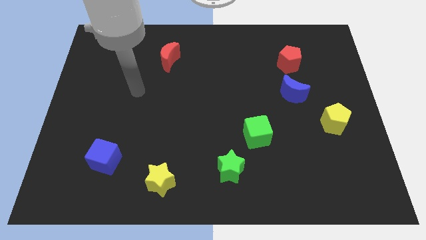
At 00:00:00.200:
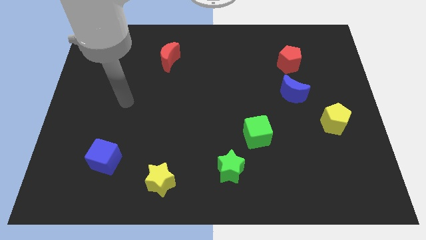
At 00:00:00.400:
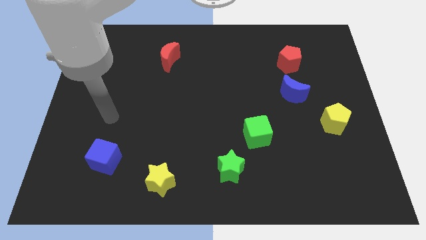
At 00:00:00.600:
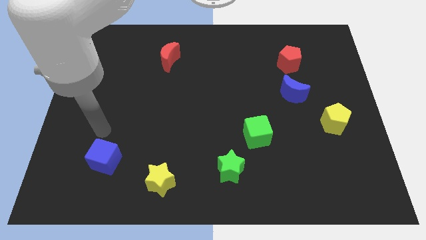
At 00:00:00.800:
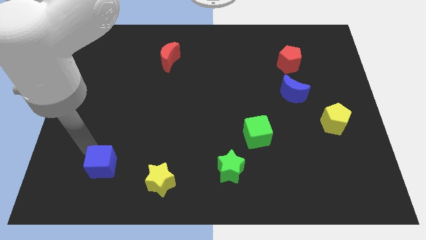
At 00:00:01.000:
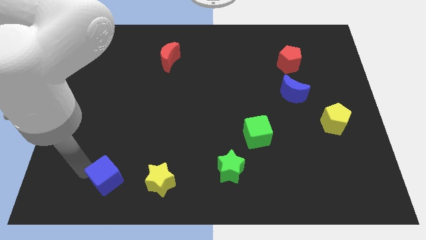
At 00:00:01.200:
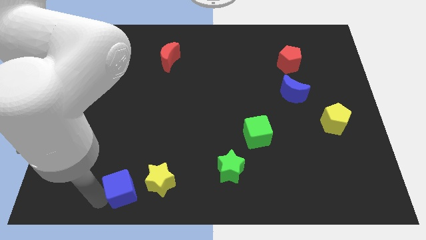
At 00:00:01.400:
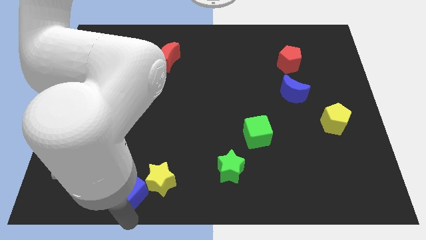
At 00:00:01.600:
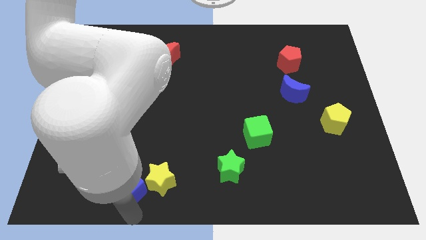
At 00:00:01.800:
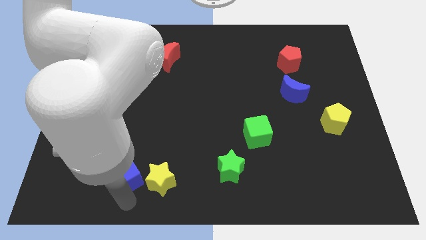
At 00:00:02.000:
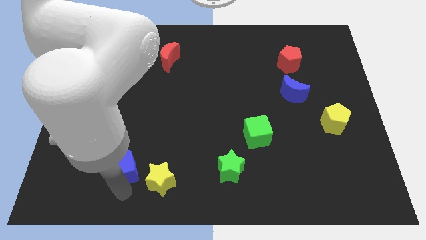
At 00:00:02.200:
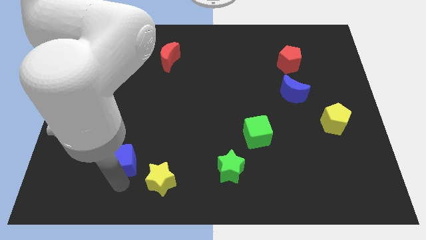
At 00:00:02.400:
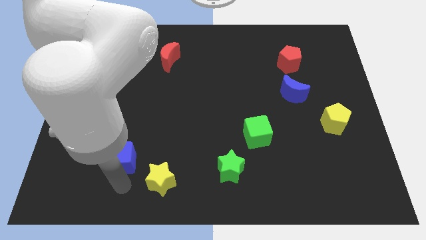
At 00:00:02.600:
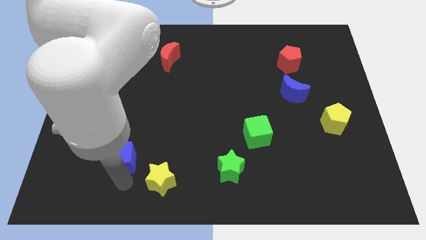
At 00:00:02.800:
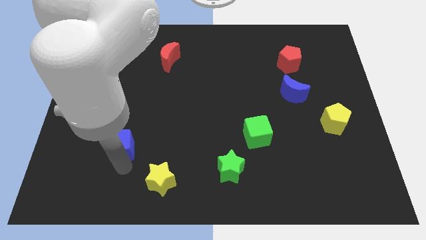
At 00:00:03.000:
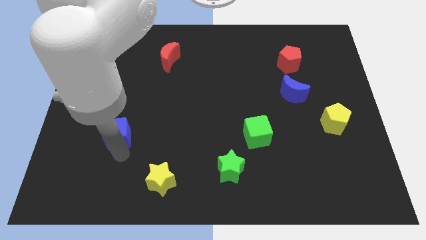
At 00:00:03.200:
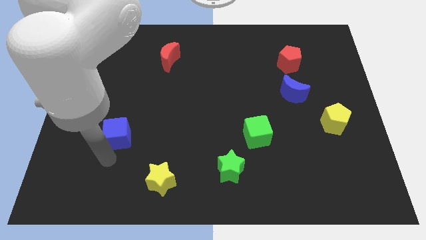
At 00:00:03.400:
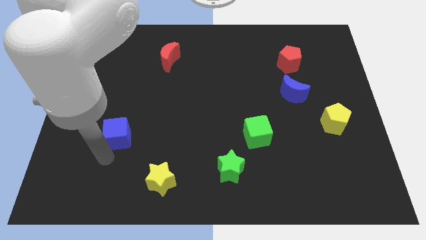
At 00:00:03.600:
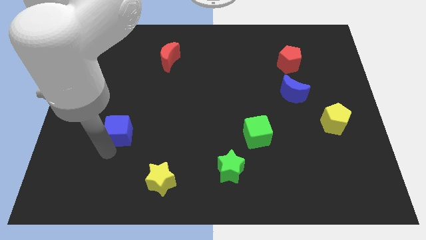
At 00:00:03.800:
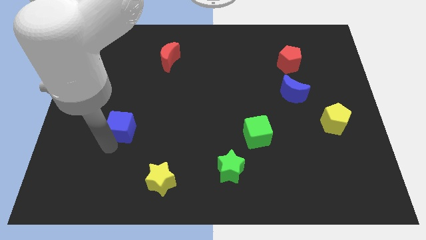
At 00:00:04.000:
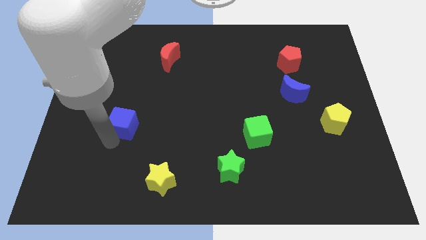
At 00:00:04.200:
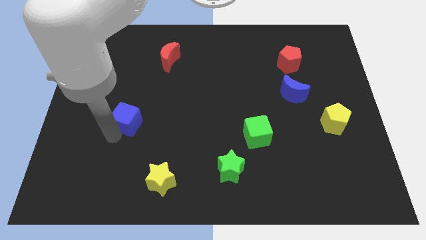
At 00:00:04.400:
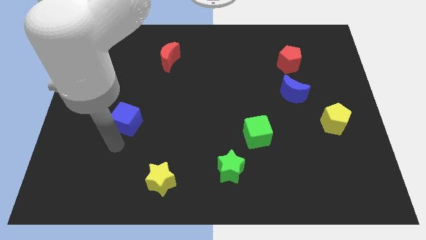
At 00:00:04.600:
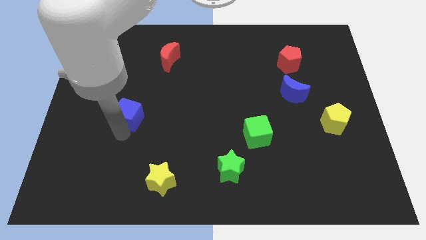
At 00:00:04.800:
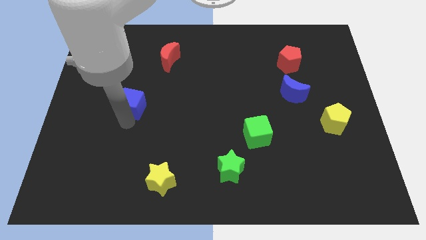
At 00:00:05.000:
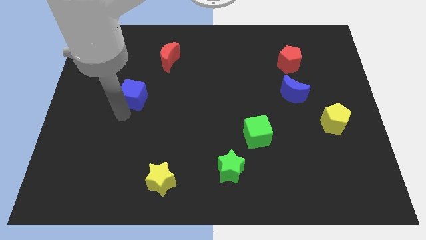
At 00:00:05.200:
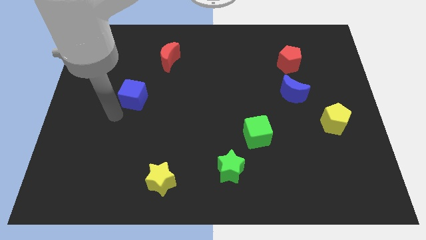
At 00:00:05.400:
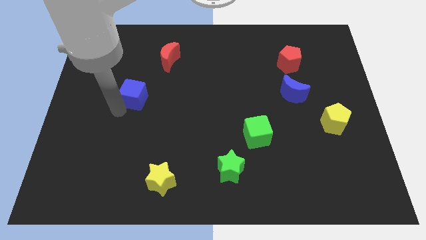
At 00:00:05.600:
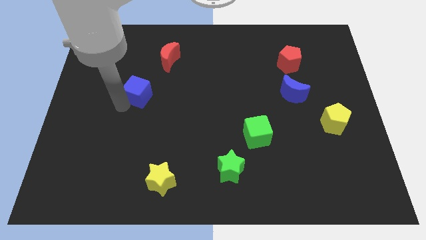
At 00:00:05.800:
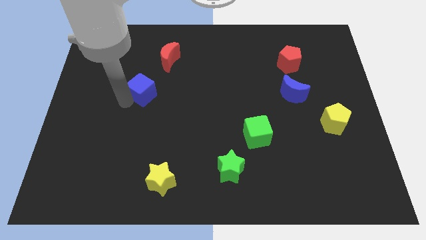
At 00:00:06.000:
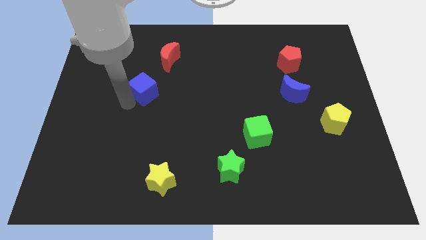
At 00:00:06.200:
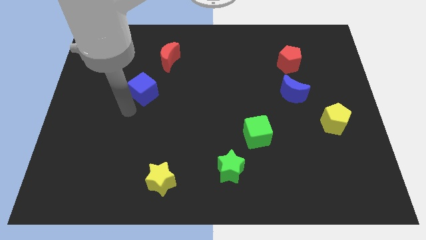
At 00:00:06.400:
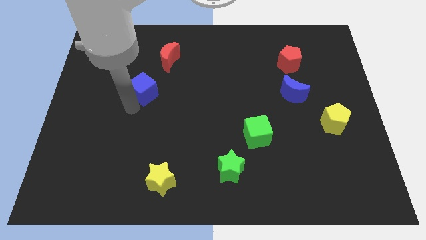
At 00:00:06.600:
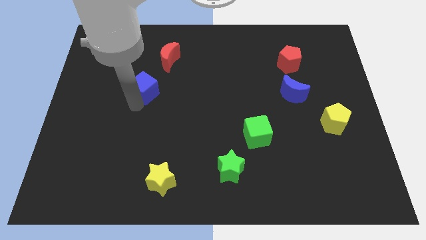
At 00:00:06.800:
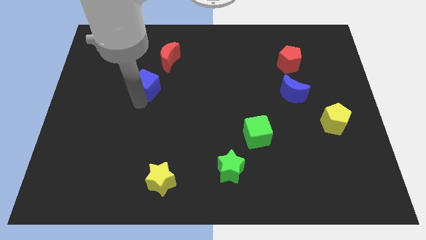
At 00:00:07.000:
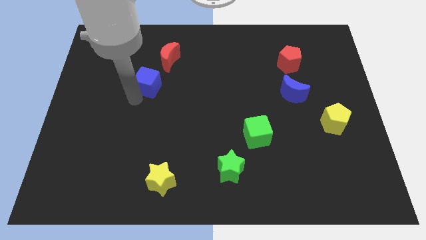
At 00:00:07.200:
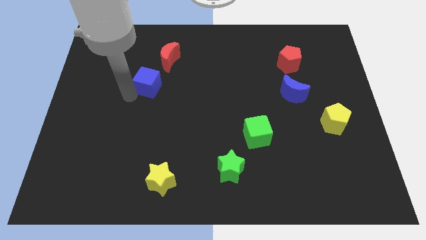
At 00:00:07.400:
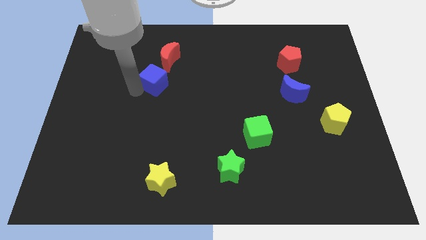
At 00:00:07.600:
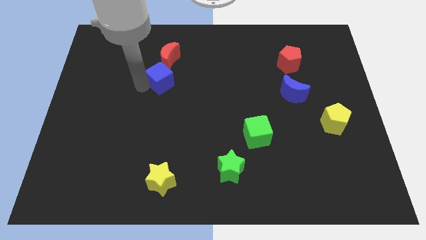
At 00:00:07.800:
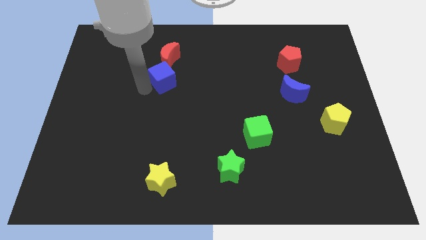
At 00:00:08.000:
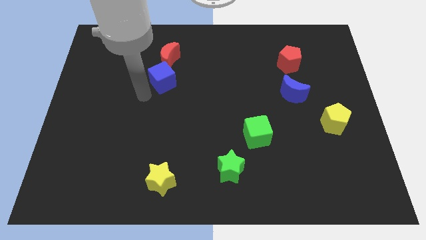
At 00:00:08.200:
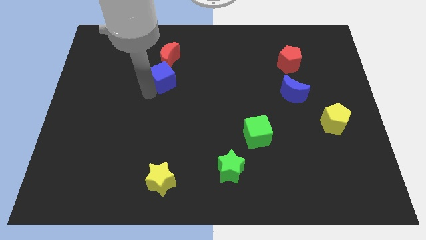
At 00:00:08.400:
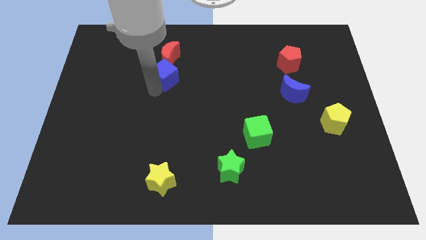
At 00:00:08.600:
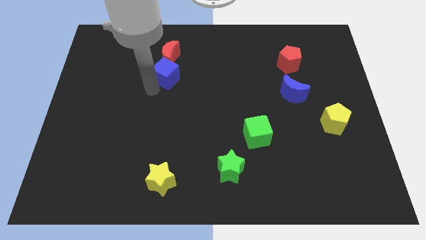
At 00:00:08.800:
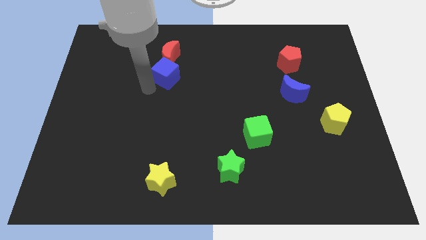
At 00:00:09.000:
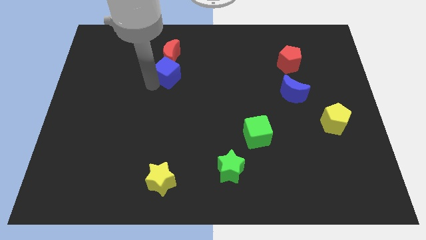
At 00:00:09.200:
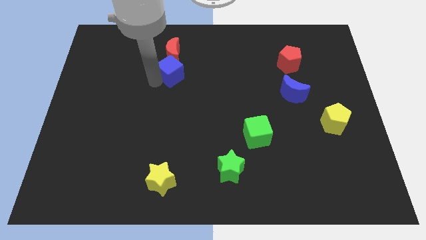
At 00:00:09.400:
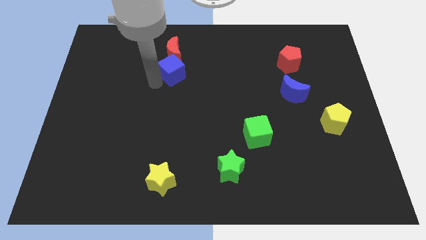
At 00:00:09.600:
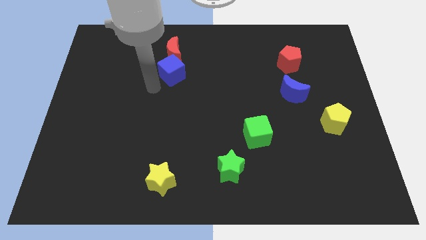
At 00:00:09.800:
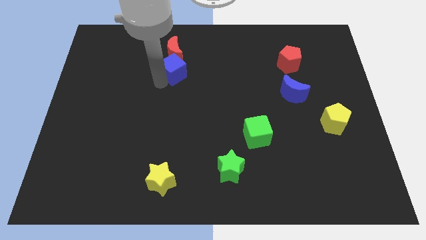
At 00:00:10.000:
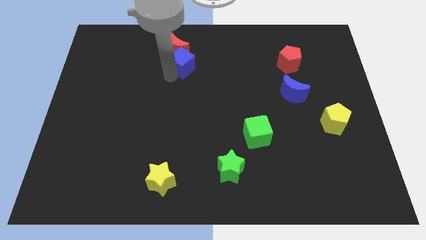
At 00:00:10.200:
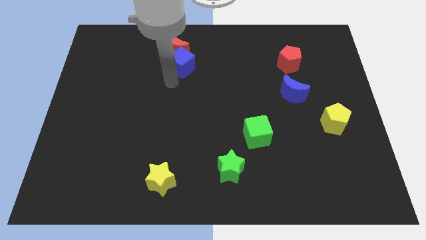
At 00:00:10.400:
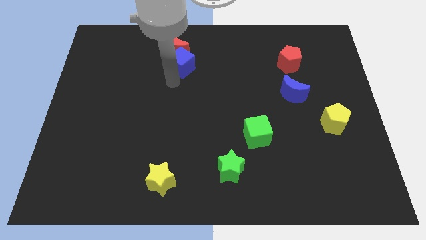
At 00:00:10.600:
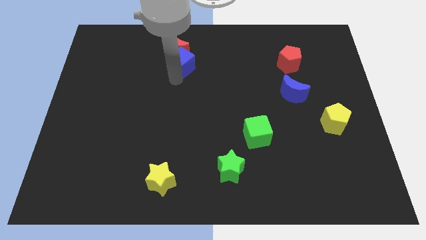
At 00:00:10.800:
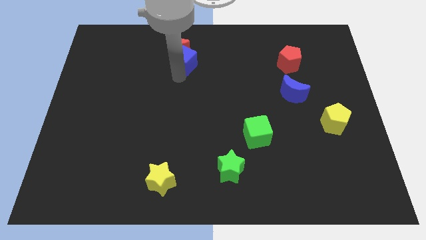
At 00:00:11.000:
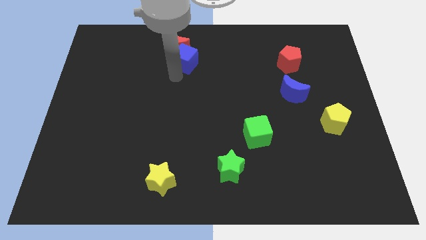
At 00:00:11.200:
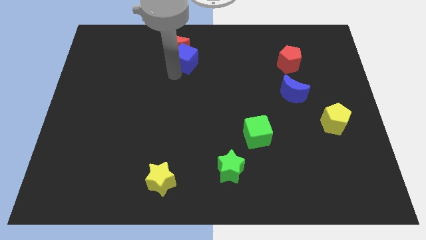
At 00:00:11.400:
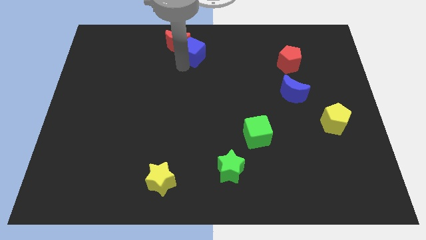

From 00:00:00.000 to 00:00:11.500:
move the blue cube to the towards your base
